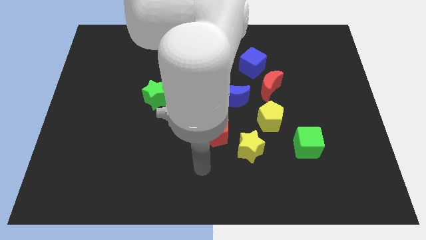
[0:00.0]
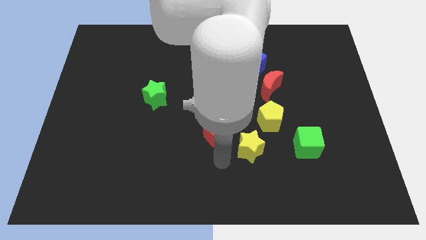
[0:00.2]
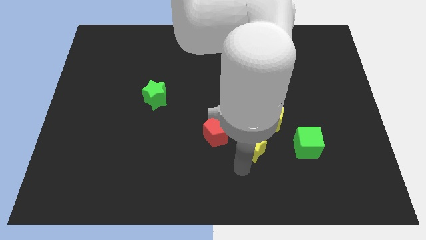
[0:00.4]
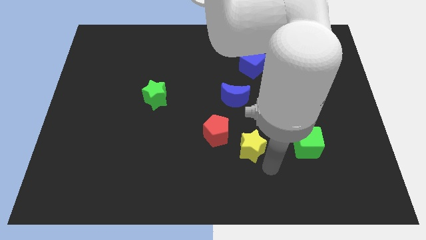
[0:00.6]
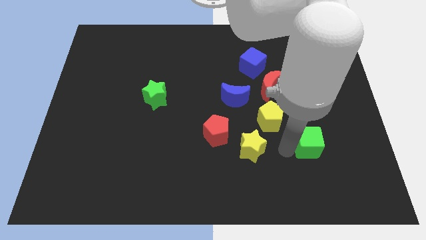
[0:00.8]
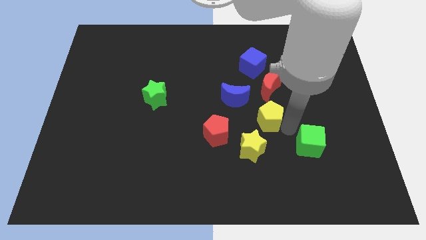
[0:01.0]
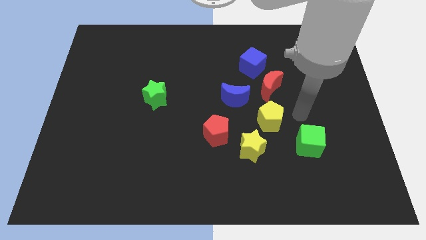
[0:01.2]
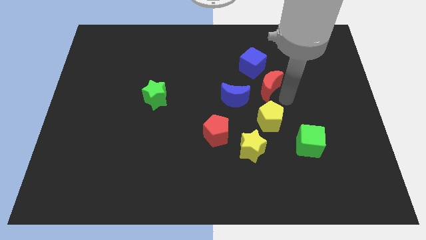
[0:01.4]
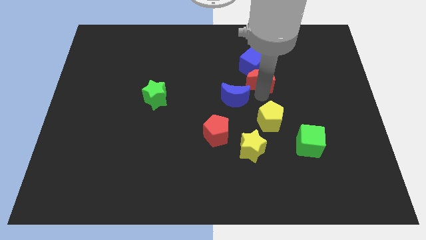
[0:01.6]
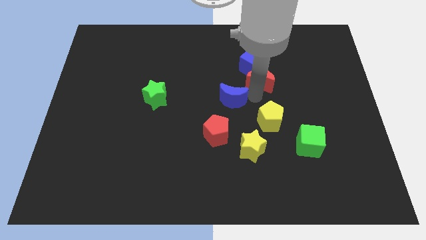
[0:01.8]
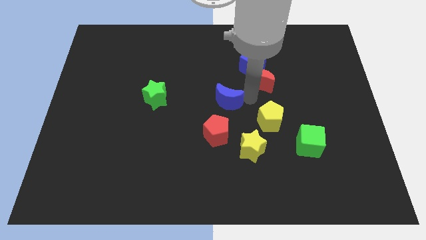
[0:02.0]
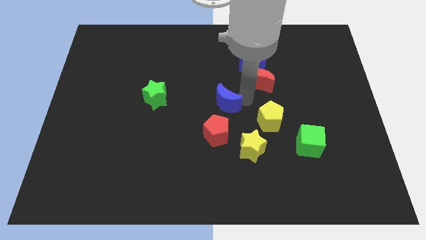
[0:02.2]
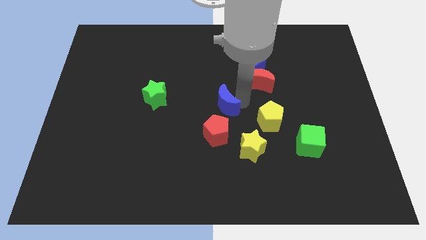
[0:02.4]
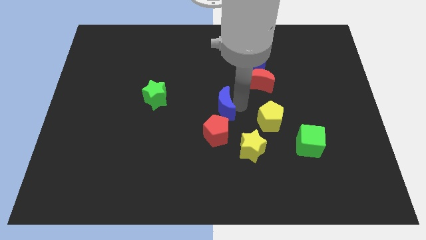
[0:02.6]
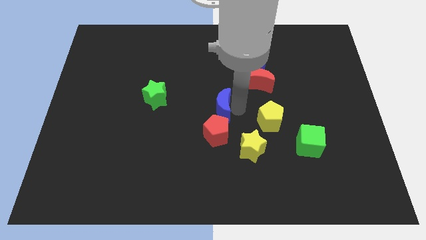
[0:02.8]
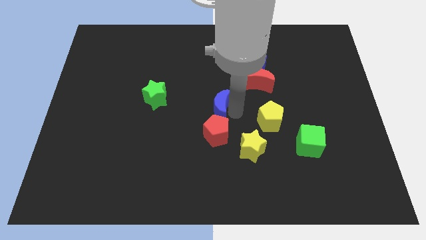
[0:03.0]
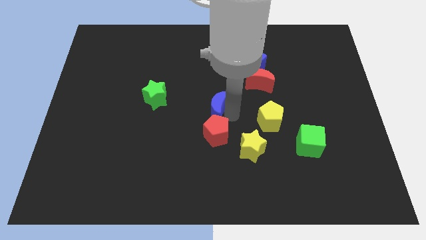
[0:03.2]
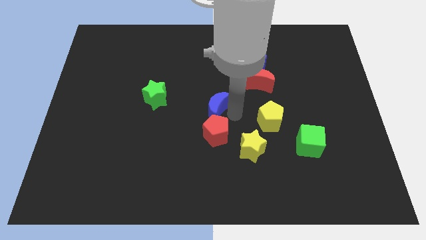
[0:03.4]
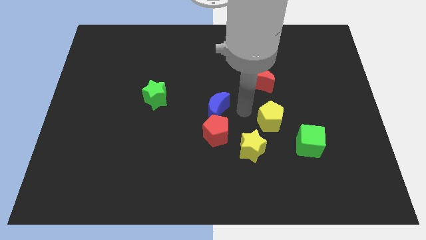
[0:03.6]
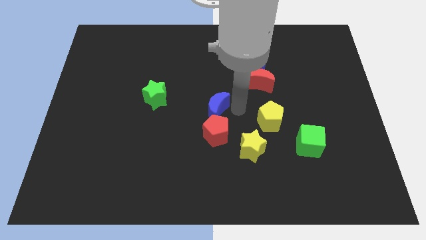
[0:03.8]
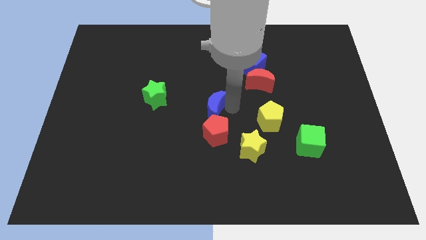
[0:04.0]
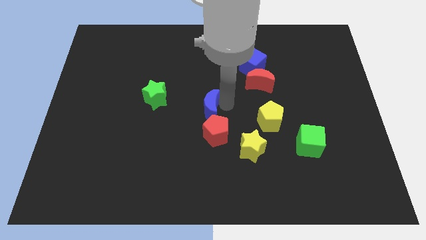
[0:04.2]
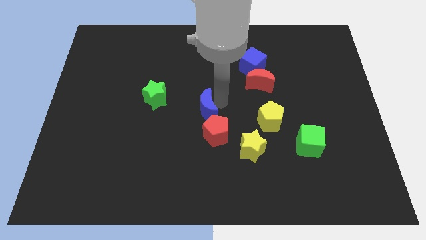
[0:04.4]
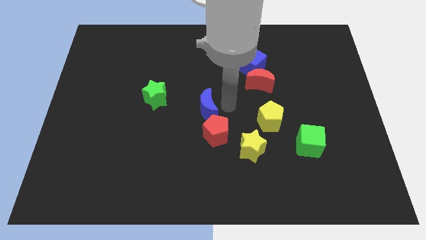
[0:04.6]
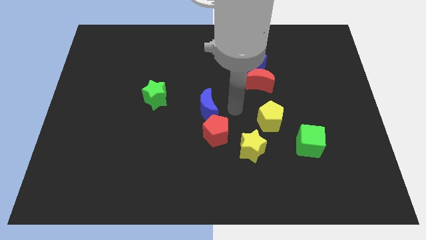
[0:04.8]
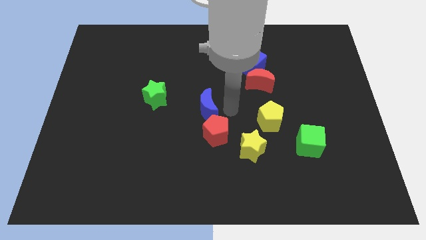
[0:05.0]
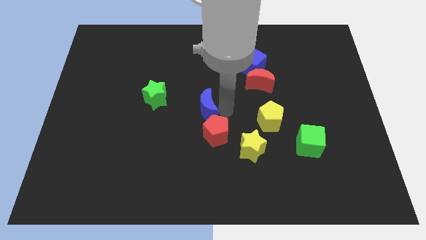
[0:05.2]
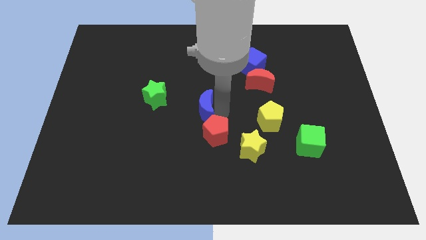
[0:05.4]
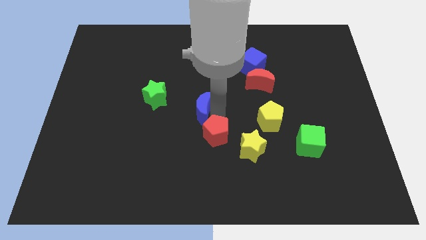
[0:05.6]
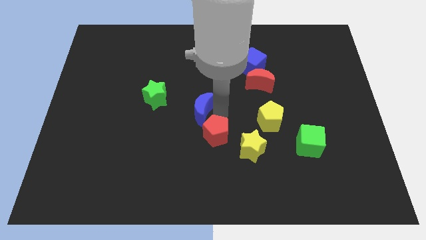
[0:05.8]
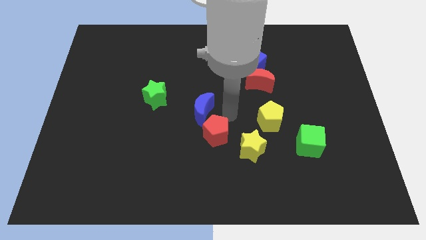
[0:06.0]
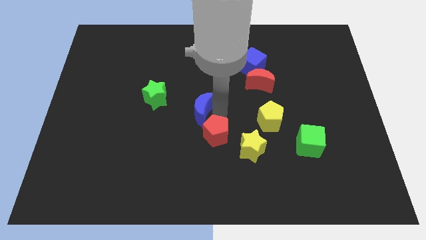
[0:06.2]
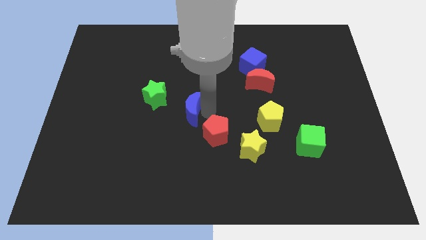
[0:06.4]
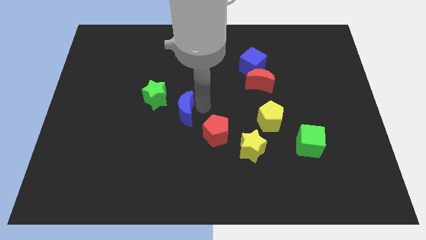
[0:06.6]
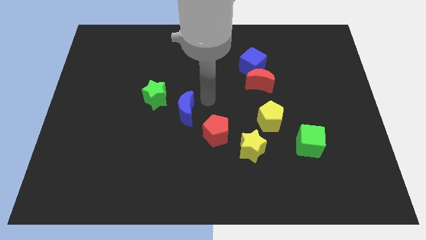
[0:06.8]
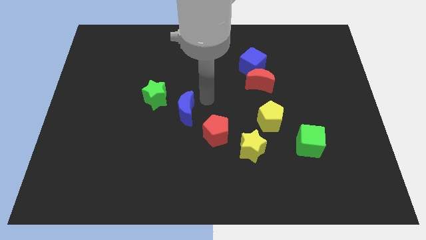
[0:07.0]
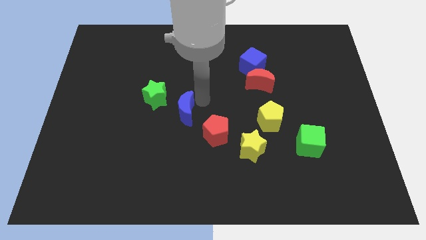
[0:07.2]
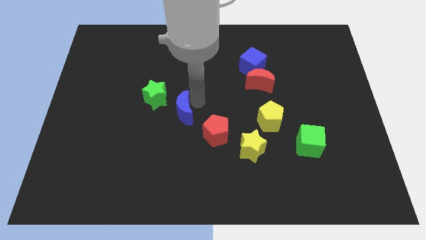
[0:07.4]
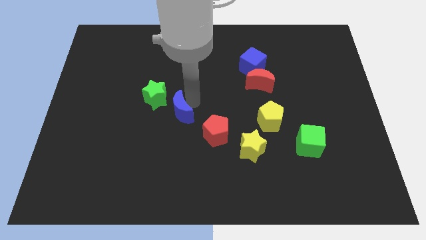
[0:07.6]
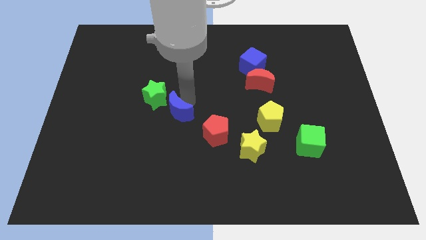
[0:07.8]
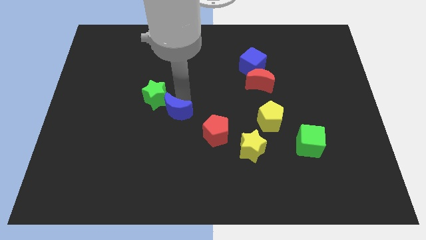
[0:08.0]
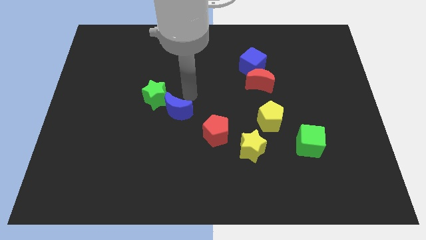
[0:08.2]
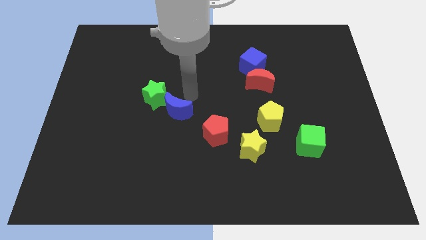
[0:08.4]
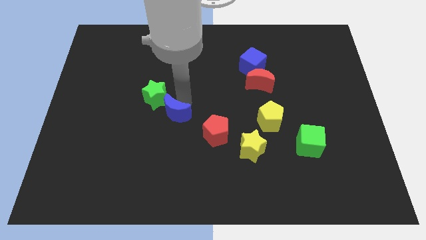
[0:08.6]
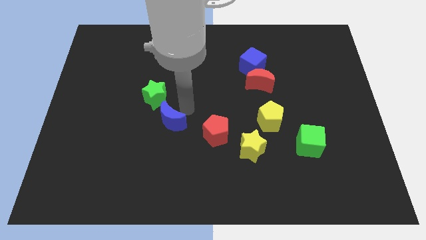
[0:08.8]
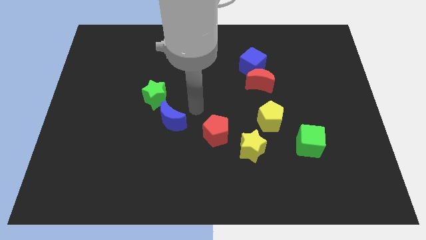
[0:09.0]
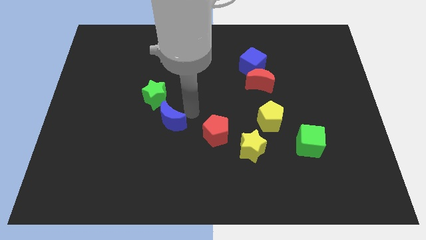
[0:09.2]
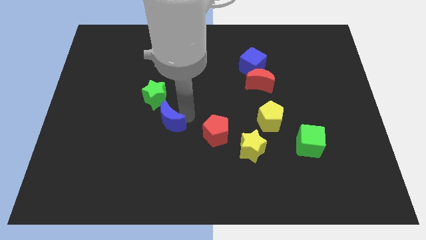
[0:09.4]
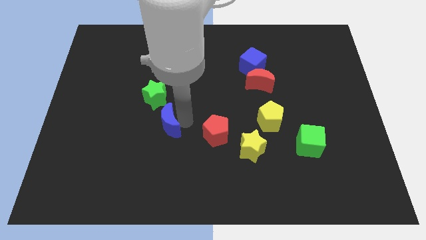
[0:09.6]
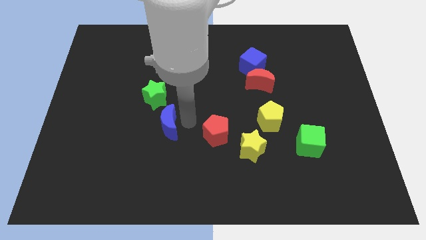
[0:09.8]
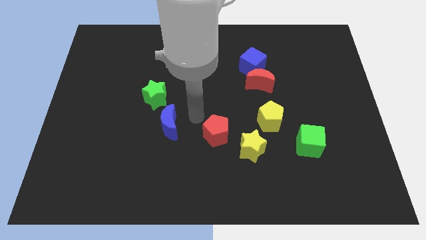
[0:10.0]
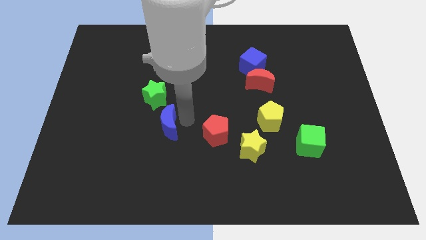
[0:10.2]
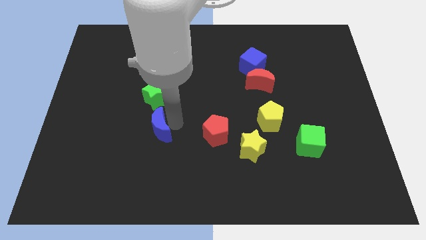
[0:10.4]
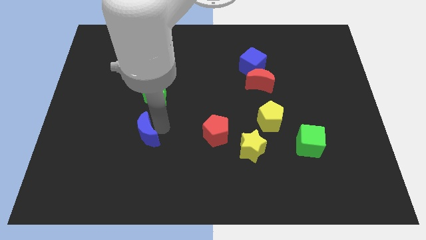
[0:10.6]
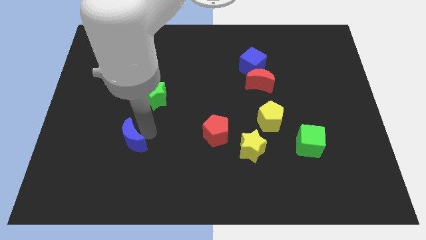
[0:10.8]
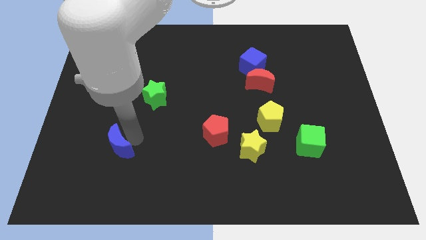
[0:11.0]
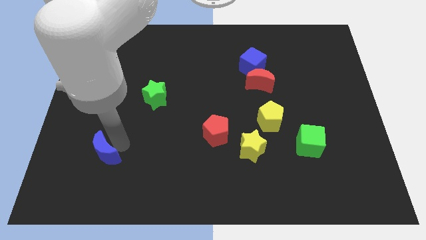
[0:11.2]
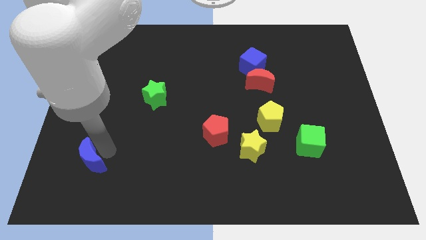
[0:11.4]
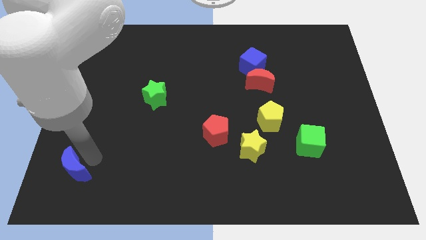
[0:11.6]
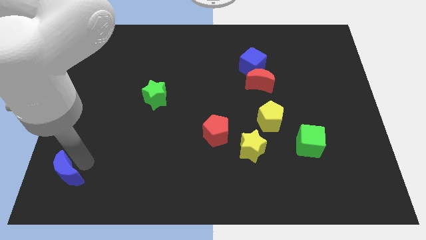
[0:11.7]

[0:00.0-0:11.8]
push the blue moon to the bottom left corner

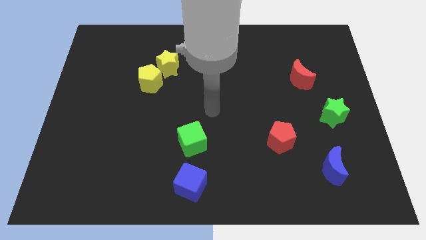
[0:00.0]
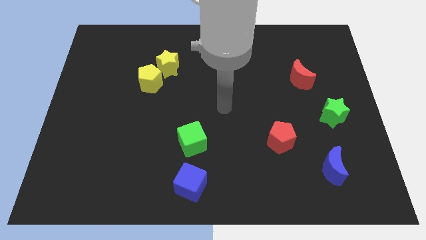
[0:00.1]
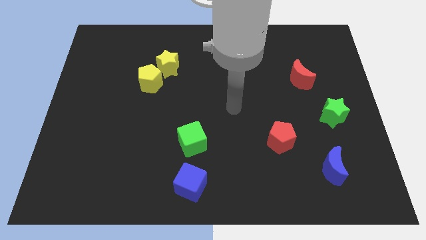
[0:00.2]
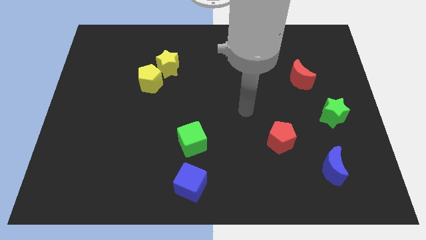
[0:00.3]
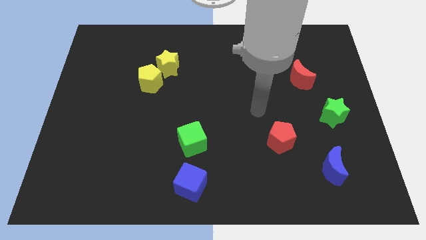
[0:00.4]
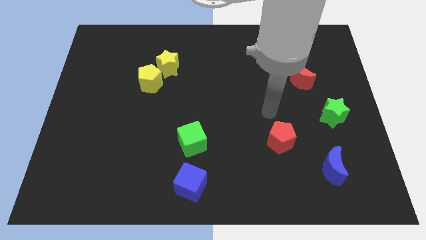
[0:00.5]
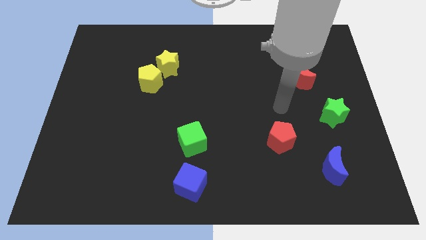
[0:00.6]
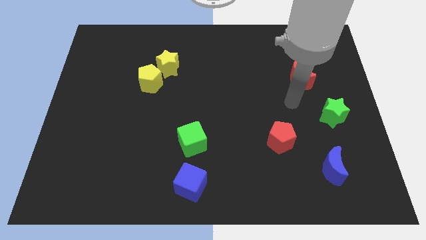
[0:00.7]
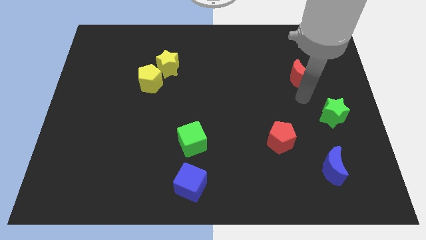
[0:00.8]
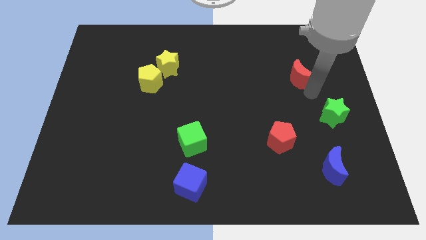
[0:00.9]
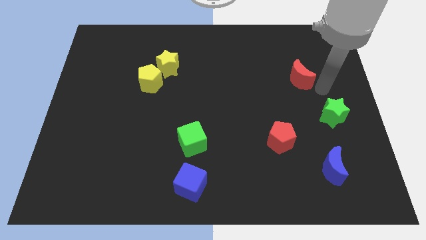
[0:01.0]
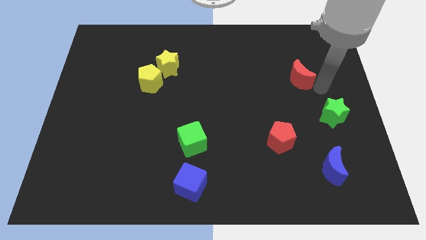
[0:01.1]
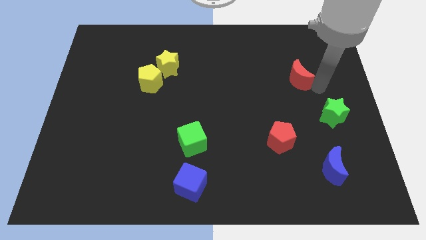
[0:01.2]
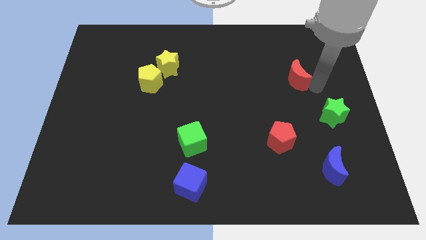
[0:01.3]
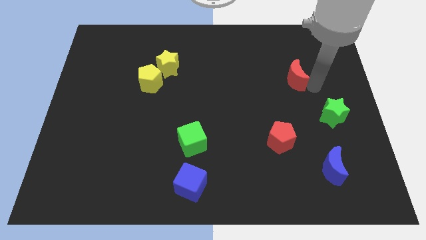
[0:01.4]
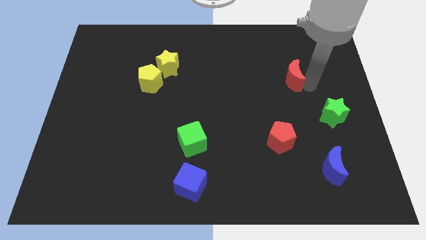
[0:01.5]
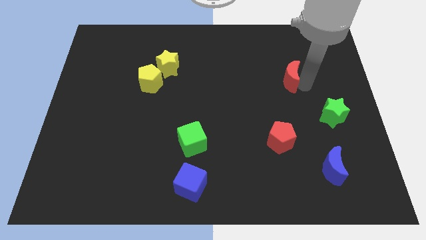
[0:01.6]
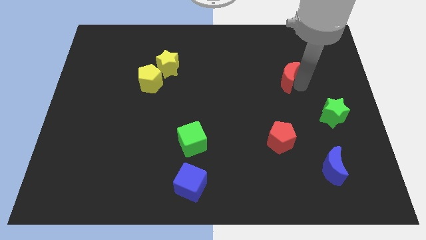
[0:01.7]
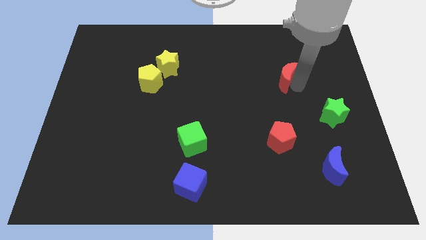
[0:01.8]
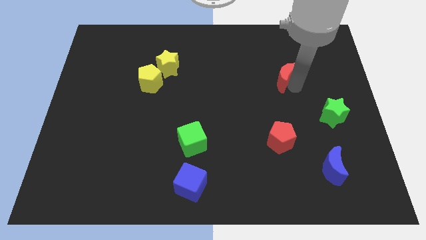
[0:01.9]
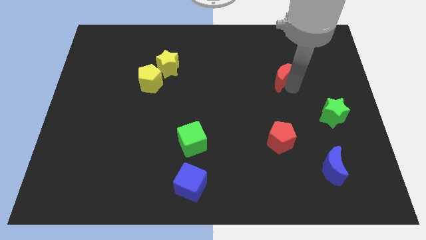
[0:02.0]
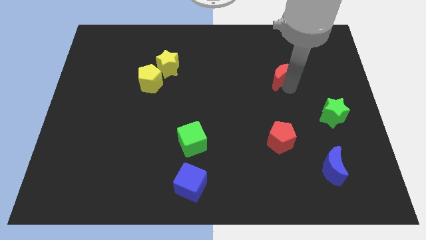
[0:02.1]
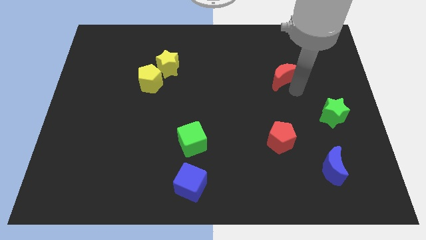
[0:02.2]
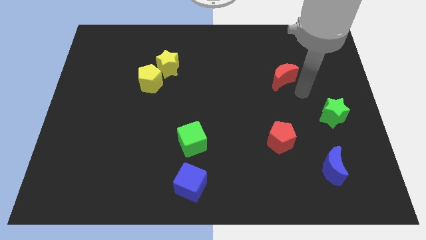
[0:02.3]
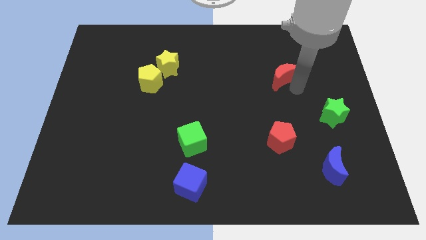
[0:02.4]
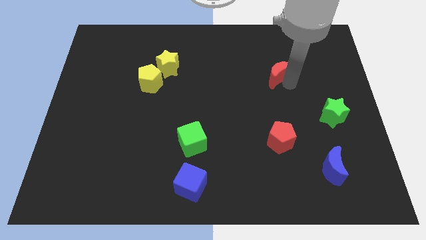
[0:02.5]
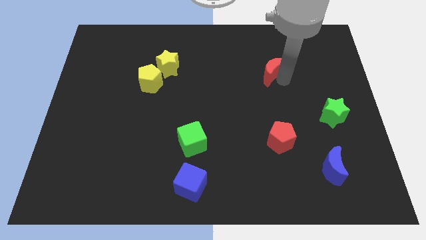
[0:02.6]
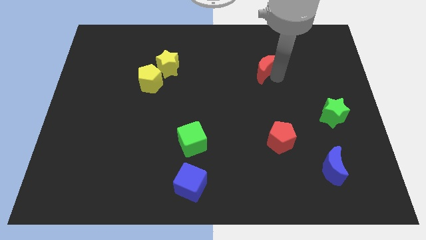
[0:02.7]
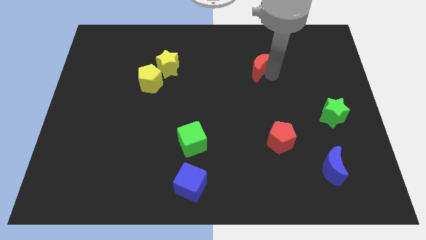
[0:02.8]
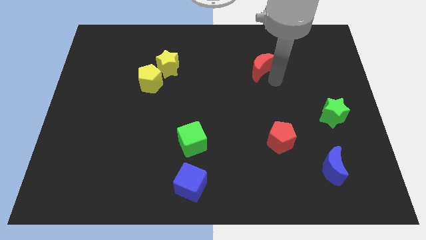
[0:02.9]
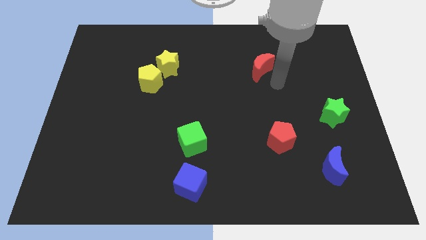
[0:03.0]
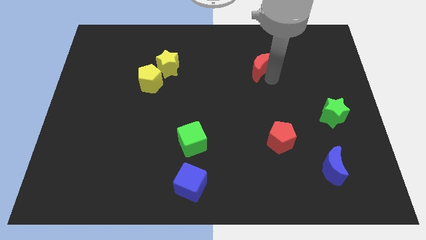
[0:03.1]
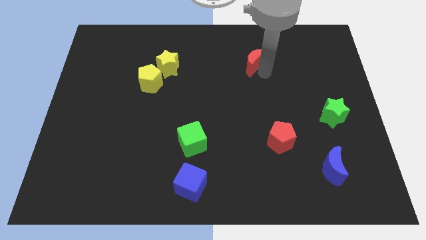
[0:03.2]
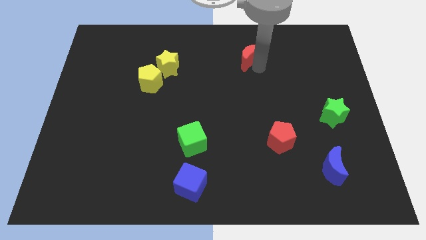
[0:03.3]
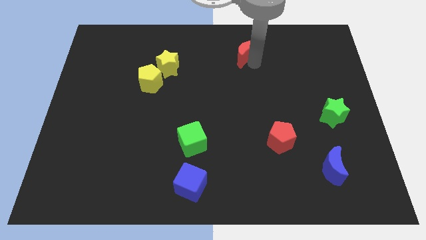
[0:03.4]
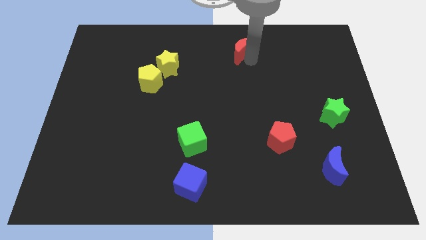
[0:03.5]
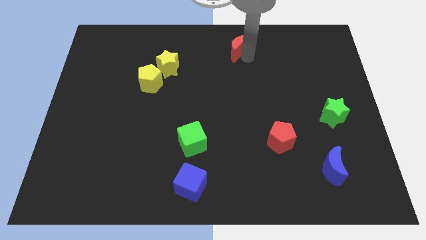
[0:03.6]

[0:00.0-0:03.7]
put the red moon to the top
